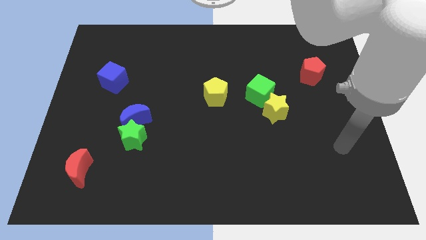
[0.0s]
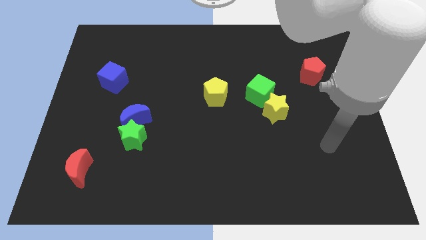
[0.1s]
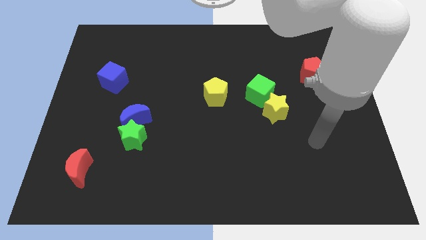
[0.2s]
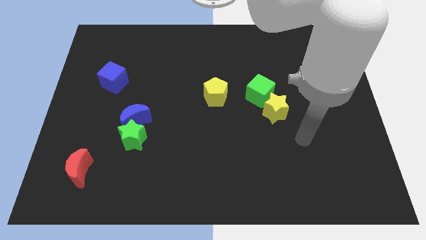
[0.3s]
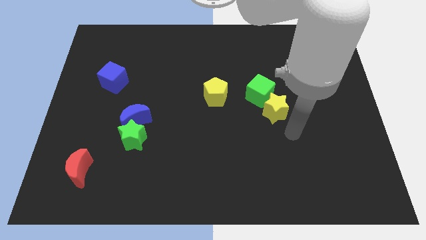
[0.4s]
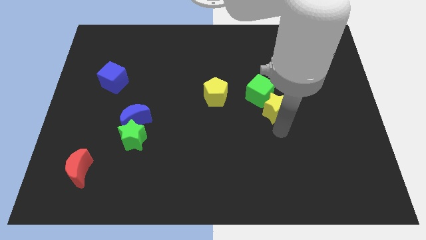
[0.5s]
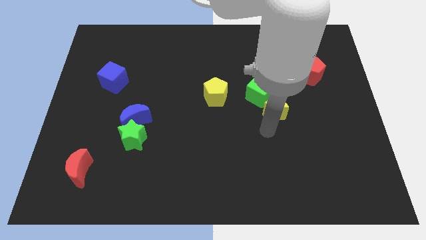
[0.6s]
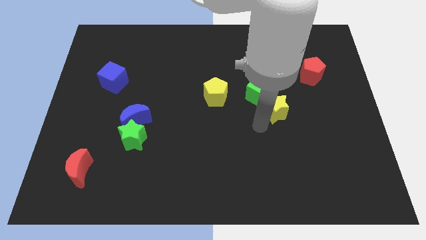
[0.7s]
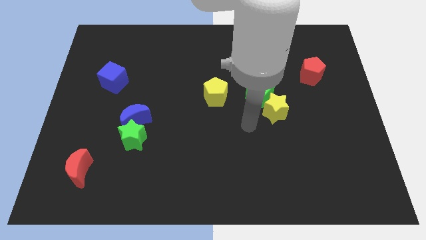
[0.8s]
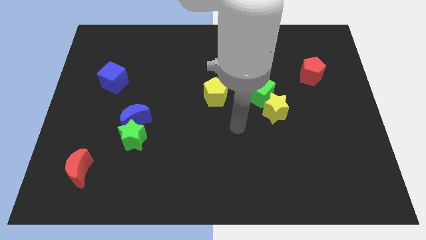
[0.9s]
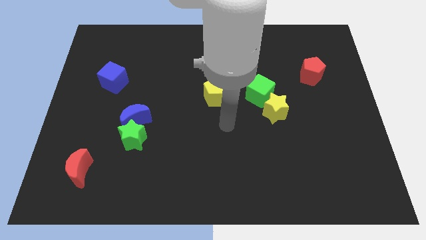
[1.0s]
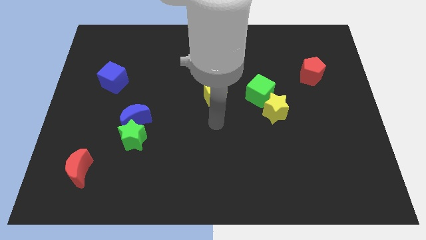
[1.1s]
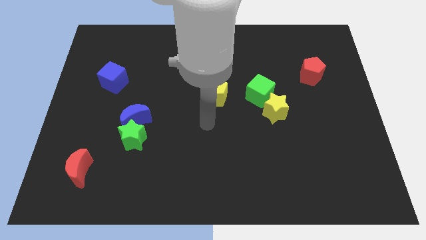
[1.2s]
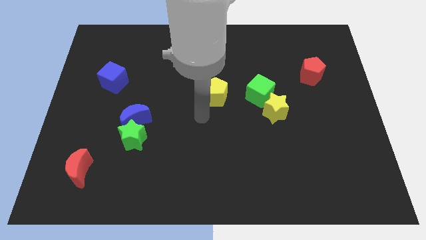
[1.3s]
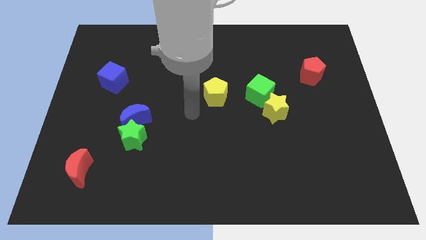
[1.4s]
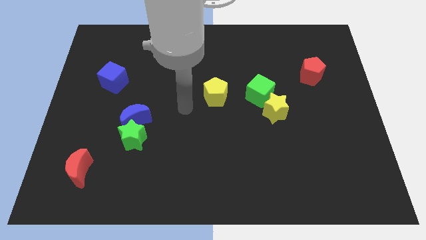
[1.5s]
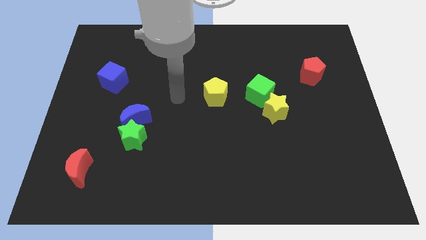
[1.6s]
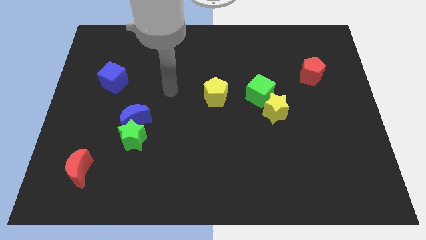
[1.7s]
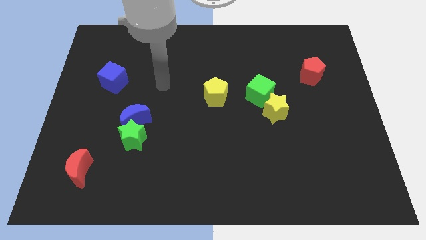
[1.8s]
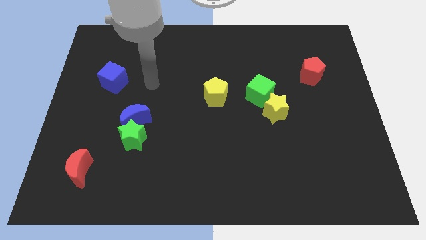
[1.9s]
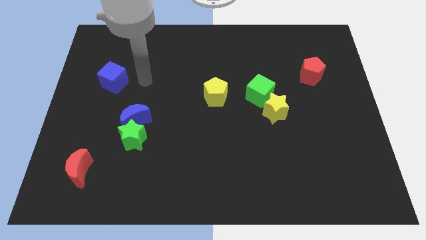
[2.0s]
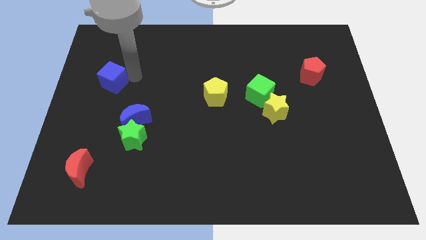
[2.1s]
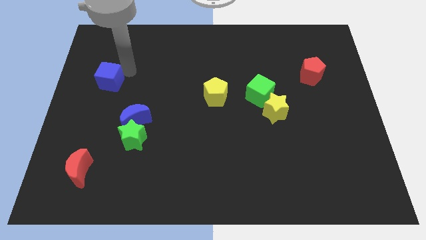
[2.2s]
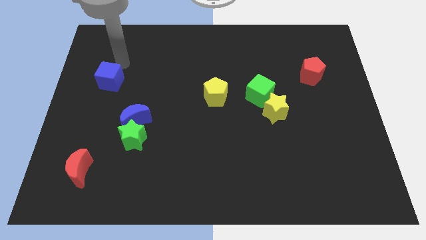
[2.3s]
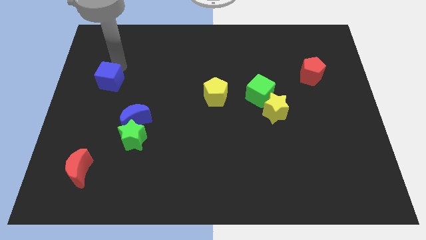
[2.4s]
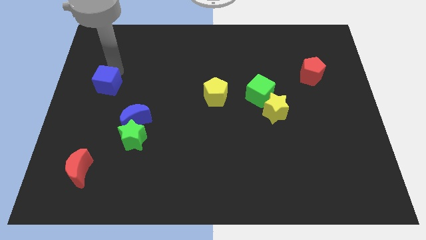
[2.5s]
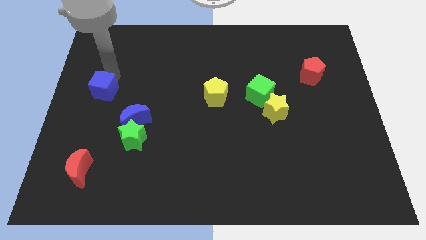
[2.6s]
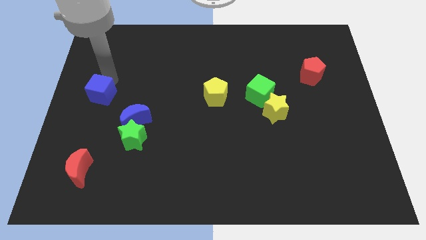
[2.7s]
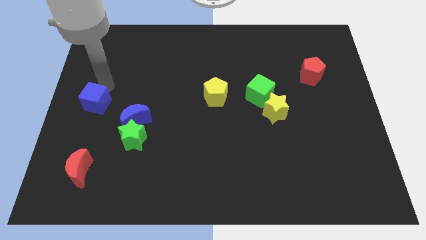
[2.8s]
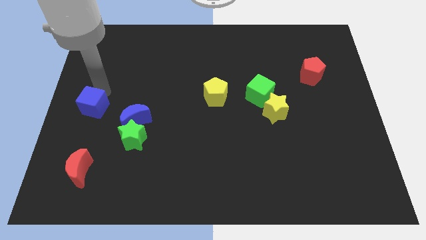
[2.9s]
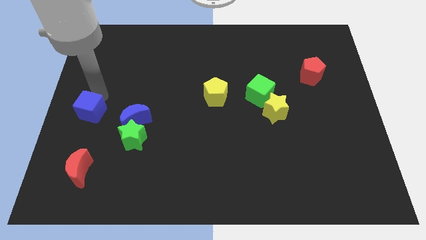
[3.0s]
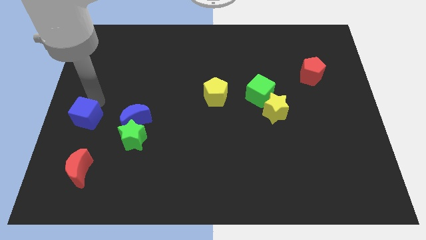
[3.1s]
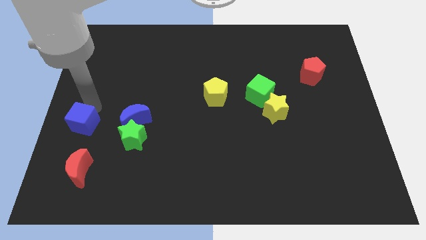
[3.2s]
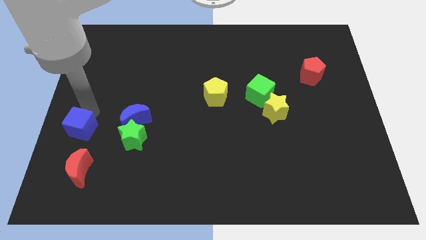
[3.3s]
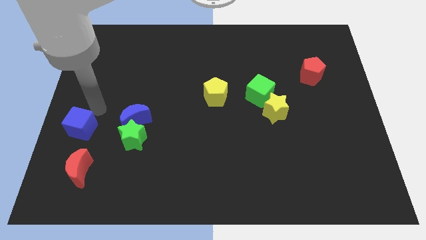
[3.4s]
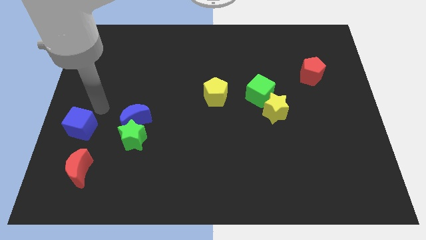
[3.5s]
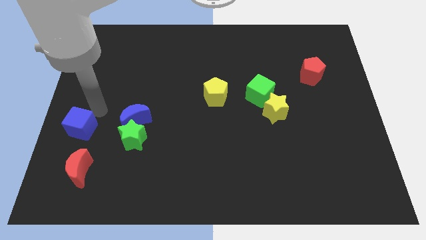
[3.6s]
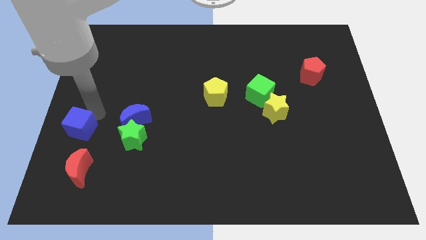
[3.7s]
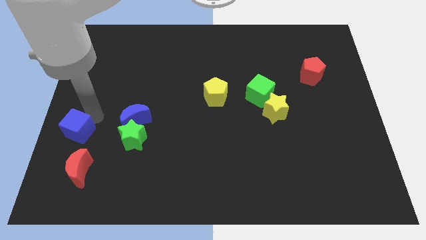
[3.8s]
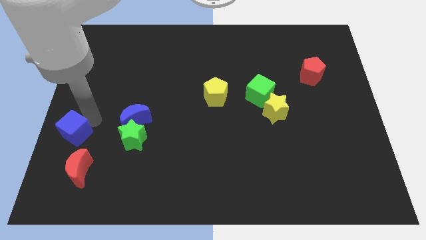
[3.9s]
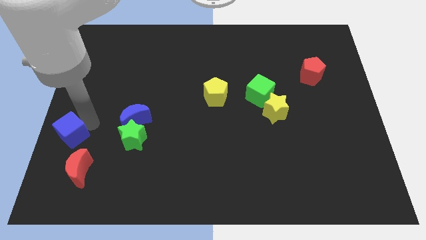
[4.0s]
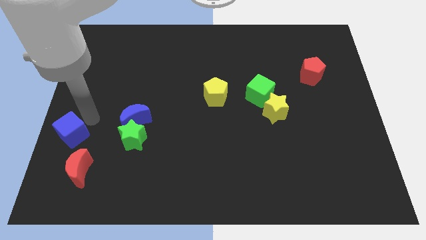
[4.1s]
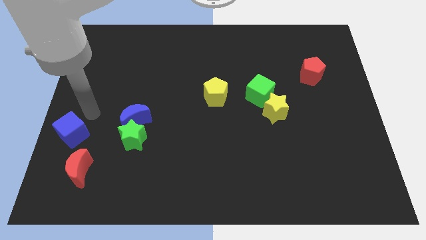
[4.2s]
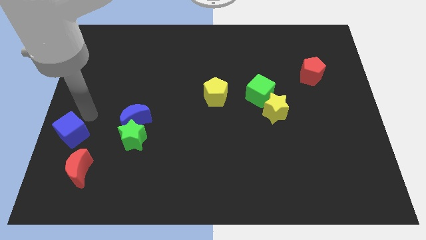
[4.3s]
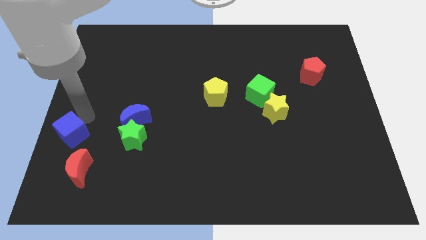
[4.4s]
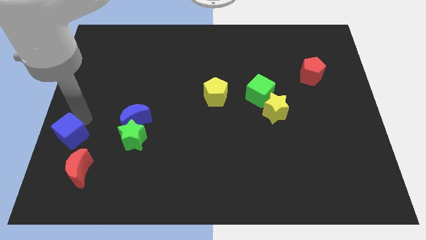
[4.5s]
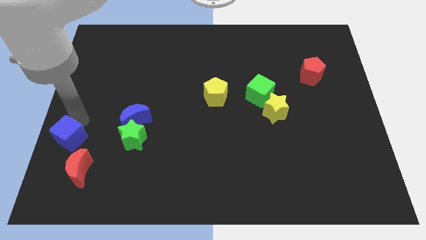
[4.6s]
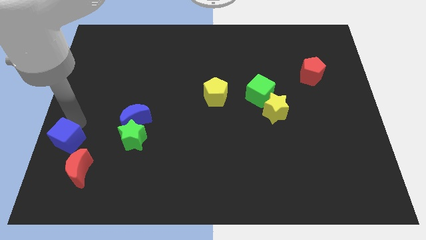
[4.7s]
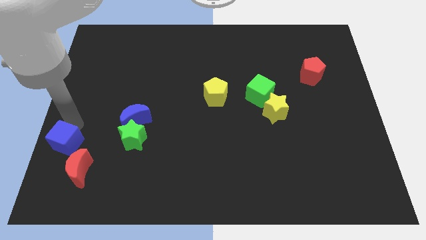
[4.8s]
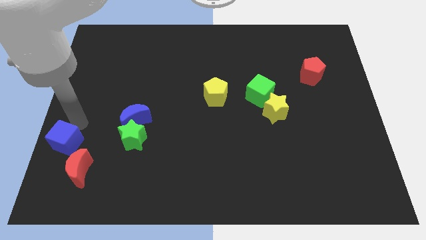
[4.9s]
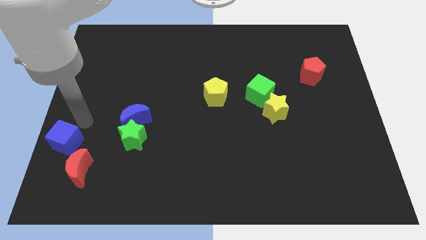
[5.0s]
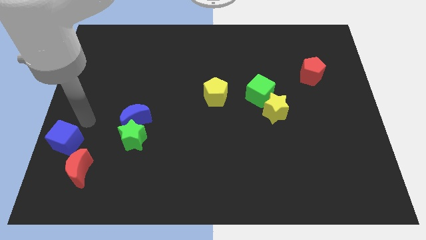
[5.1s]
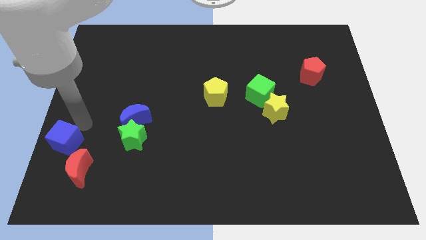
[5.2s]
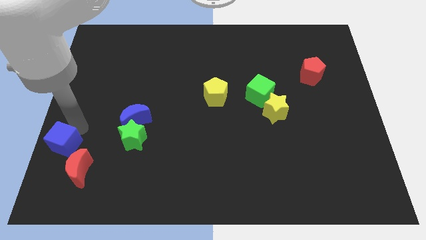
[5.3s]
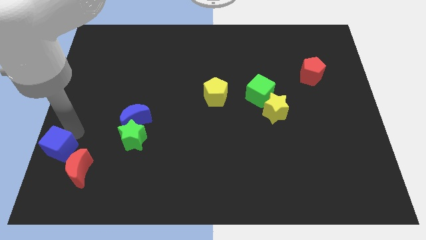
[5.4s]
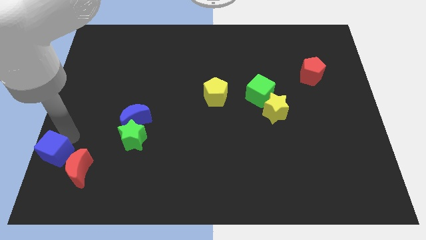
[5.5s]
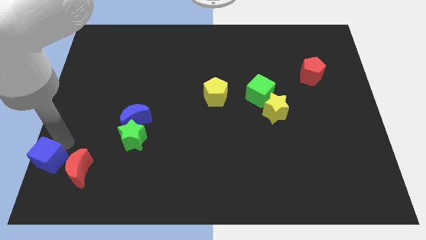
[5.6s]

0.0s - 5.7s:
push the blue cube to the bottom left

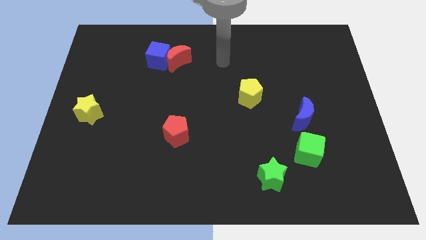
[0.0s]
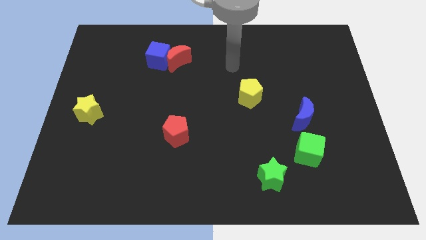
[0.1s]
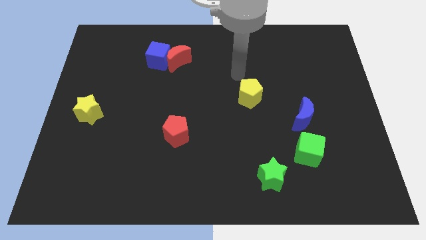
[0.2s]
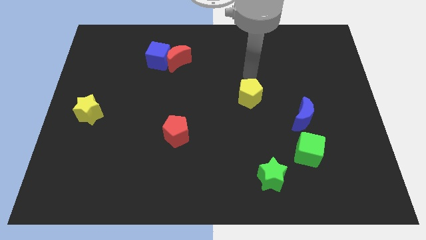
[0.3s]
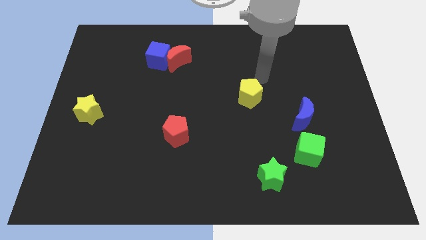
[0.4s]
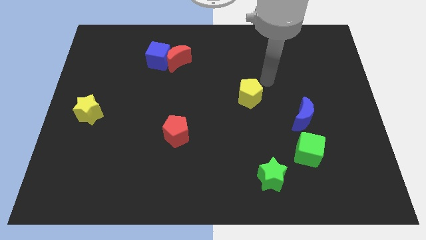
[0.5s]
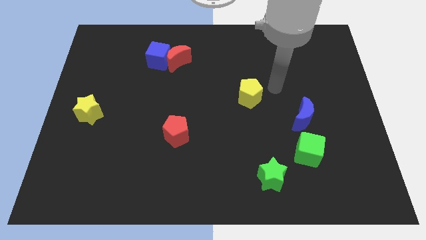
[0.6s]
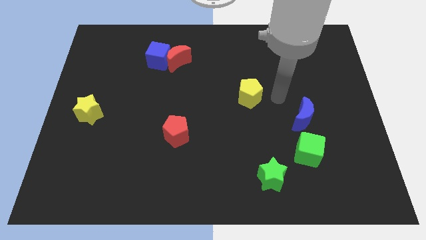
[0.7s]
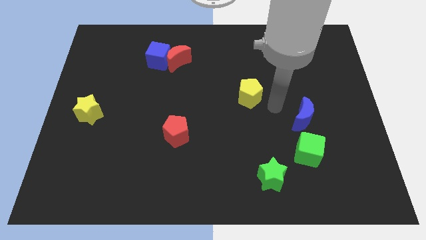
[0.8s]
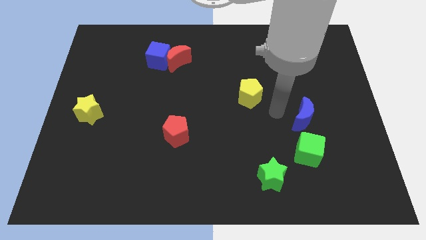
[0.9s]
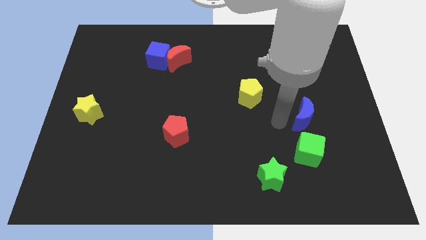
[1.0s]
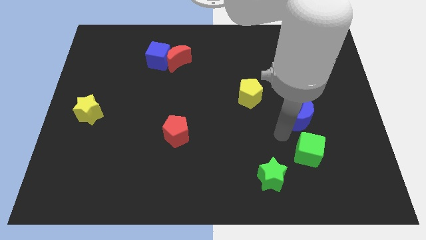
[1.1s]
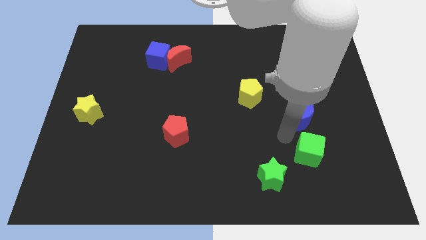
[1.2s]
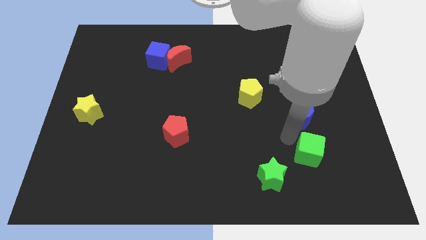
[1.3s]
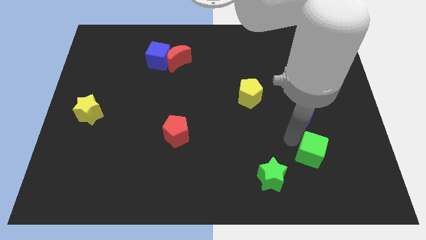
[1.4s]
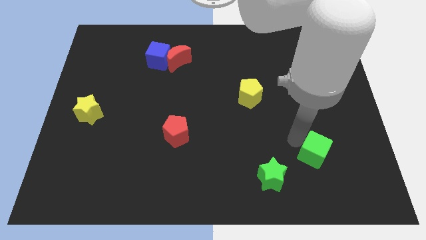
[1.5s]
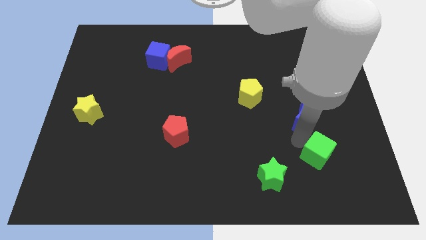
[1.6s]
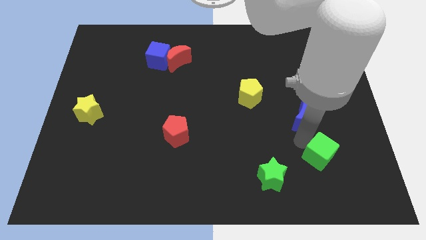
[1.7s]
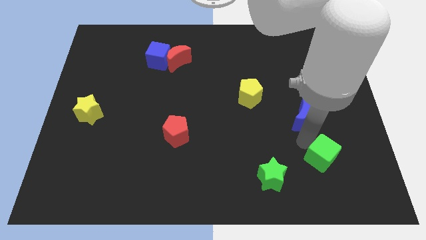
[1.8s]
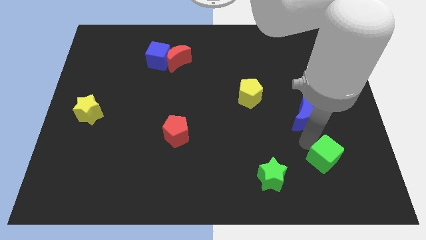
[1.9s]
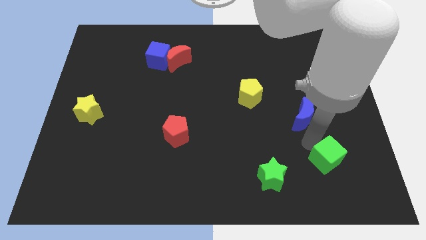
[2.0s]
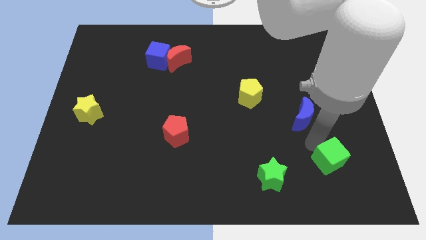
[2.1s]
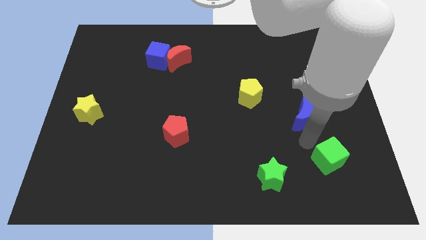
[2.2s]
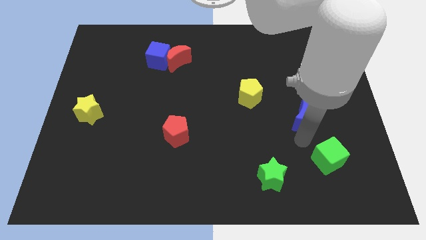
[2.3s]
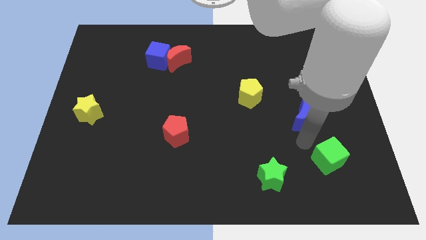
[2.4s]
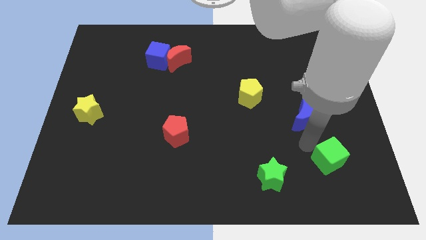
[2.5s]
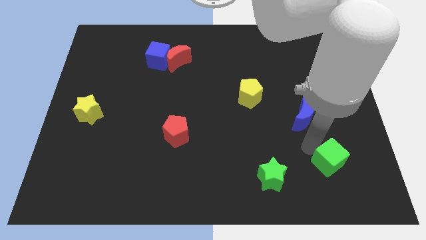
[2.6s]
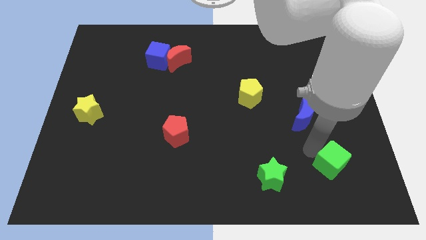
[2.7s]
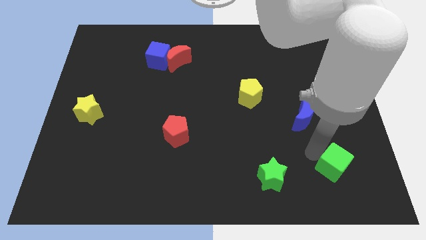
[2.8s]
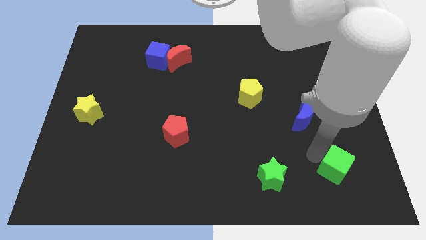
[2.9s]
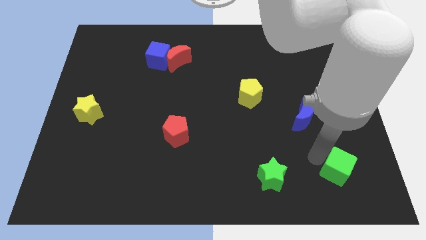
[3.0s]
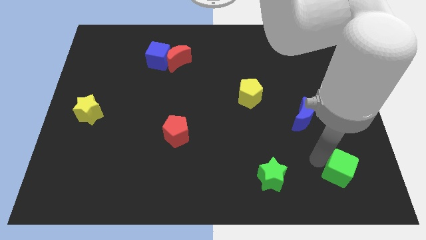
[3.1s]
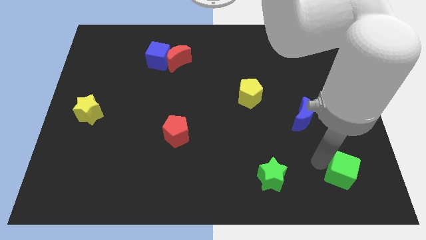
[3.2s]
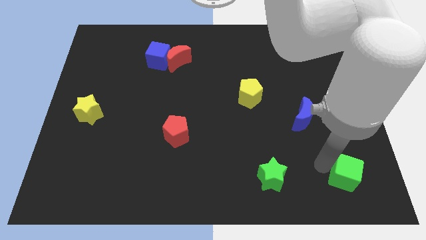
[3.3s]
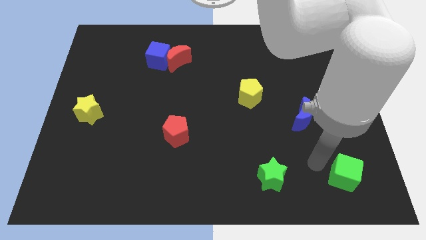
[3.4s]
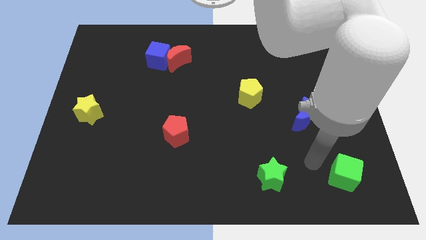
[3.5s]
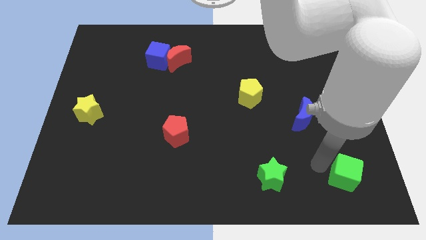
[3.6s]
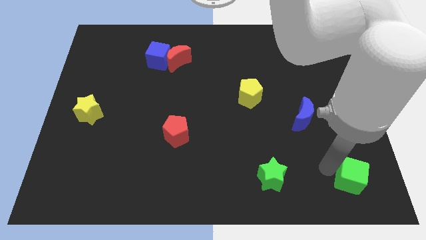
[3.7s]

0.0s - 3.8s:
slide the green cube to the bottom right
